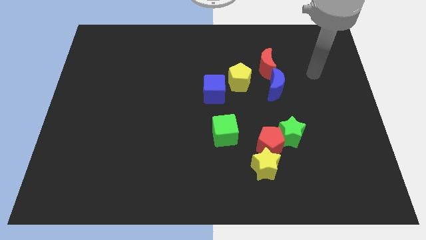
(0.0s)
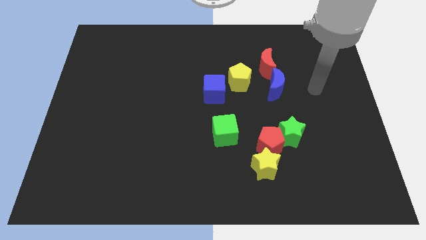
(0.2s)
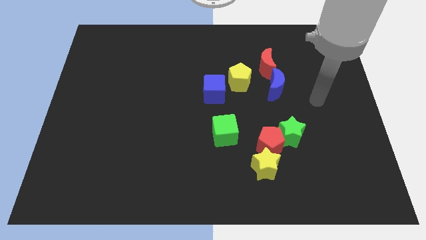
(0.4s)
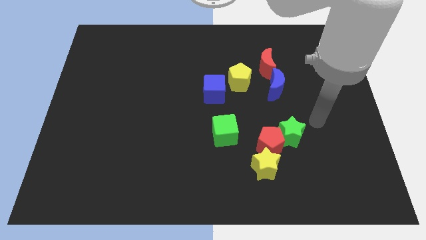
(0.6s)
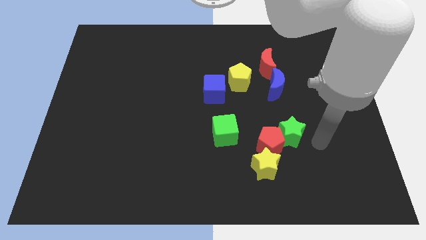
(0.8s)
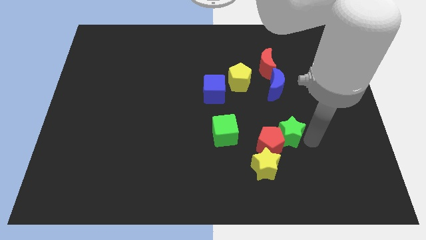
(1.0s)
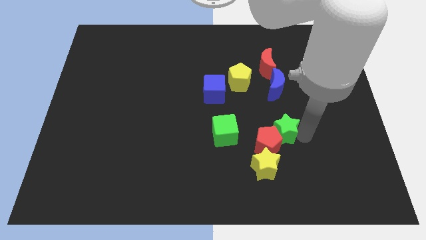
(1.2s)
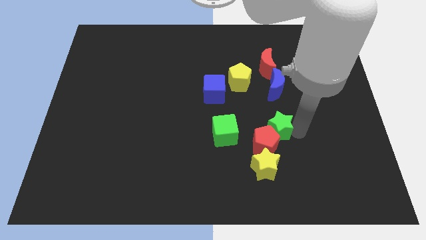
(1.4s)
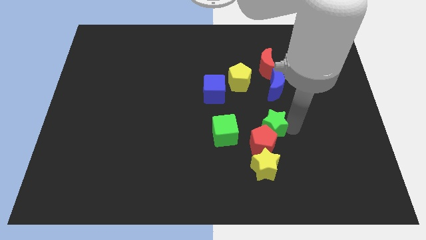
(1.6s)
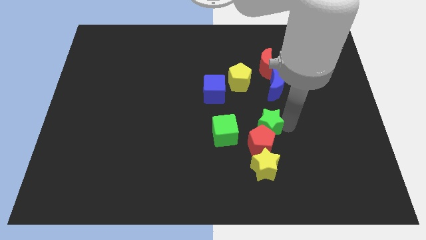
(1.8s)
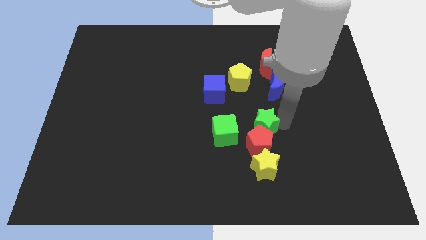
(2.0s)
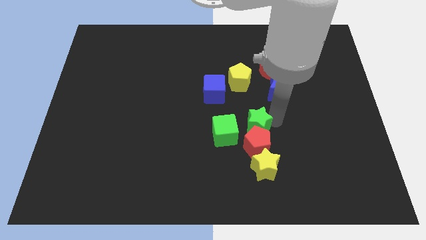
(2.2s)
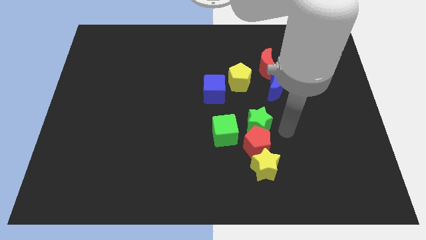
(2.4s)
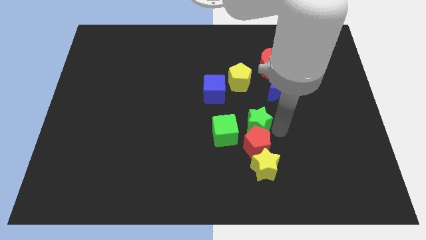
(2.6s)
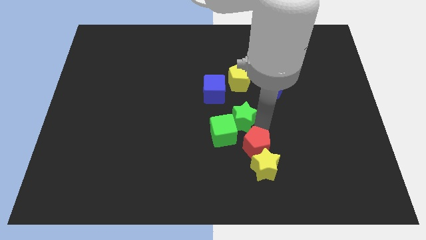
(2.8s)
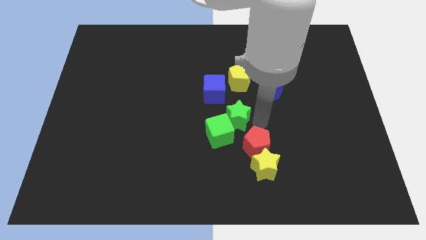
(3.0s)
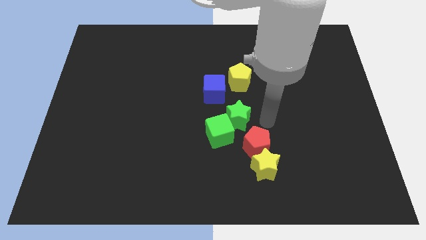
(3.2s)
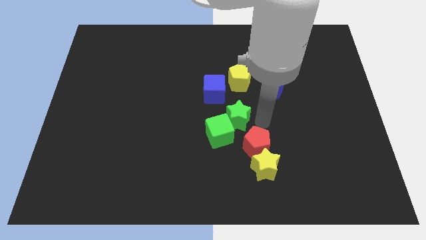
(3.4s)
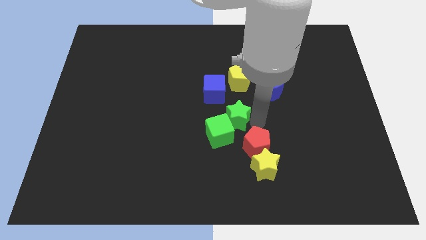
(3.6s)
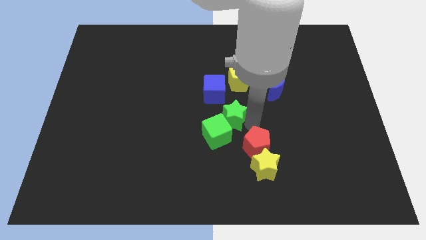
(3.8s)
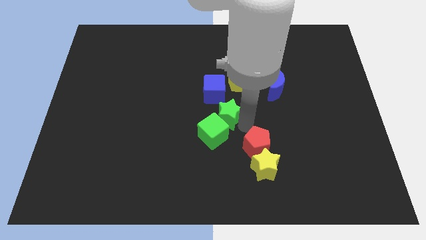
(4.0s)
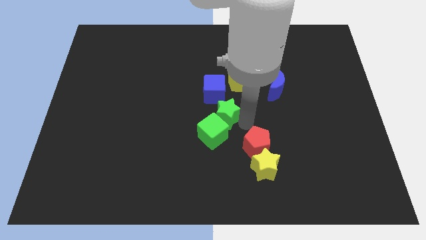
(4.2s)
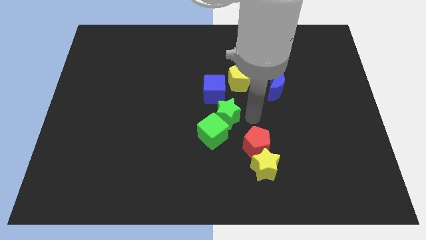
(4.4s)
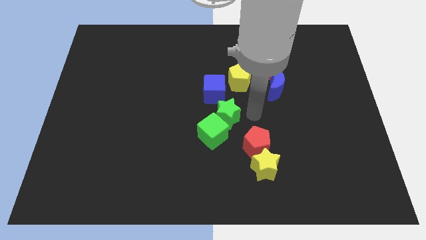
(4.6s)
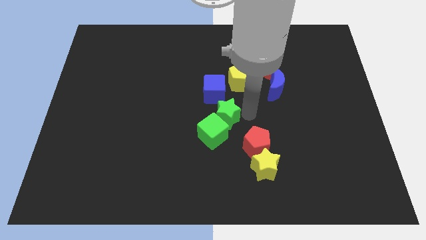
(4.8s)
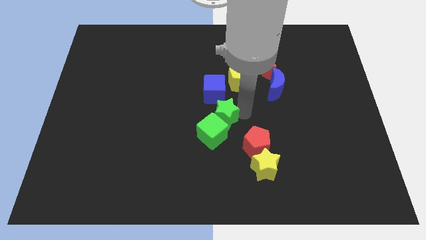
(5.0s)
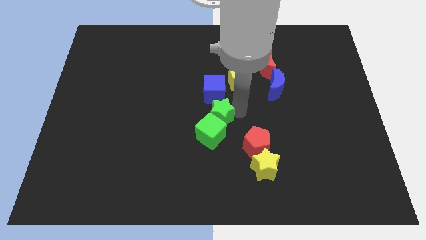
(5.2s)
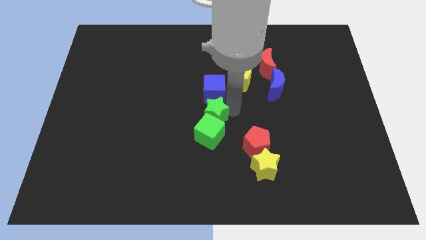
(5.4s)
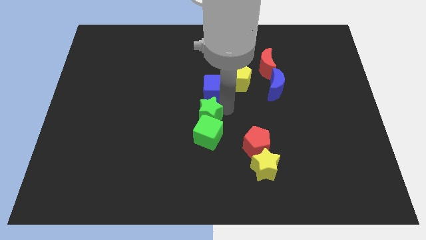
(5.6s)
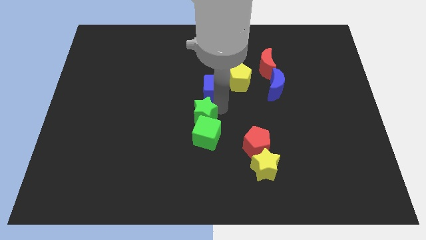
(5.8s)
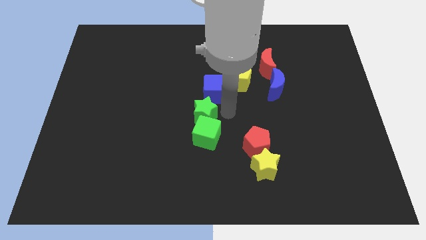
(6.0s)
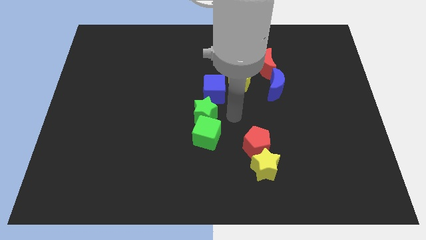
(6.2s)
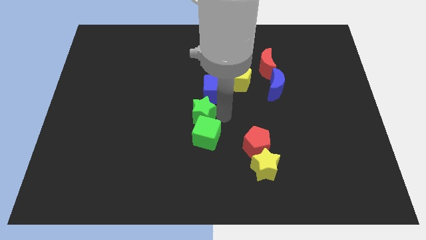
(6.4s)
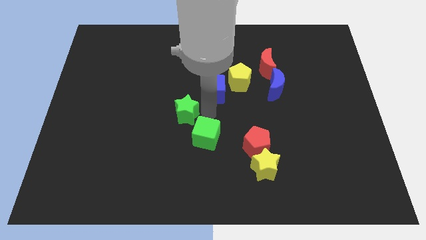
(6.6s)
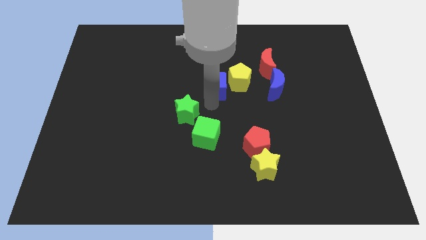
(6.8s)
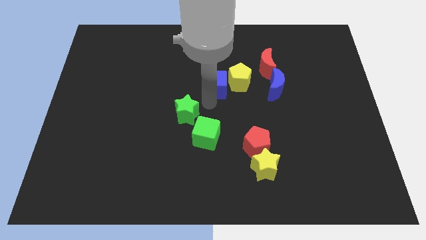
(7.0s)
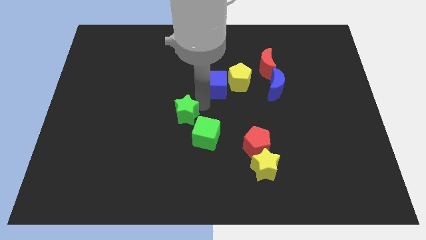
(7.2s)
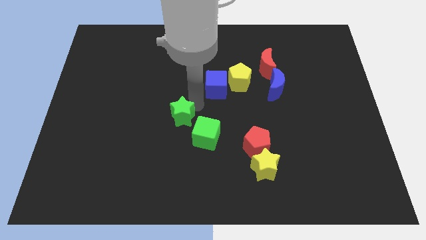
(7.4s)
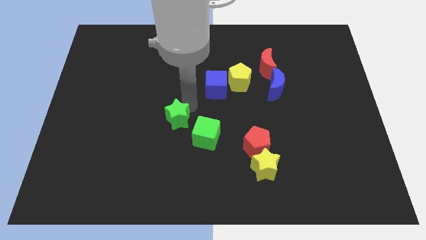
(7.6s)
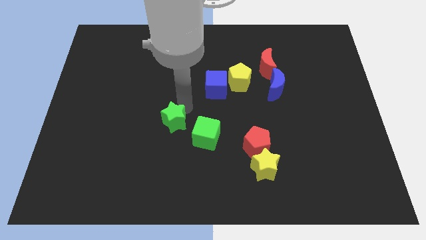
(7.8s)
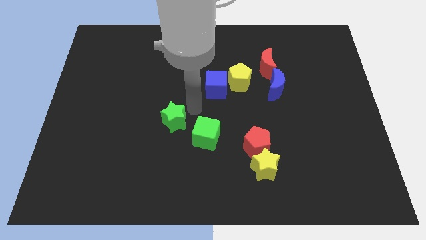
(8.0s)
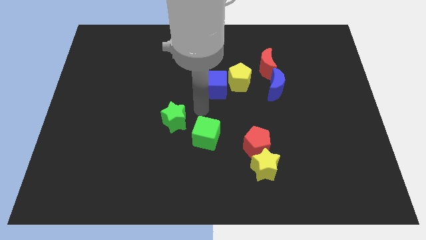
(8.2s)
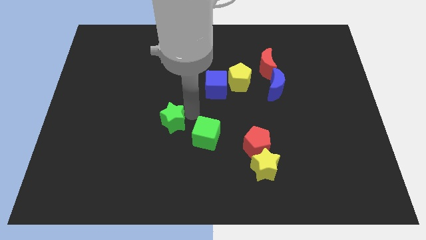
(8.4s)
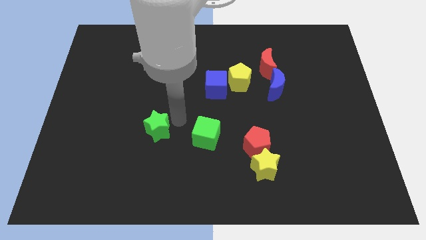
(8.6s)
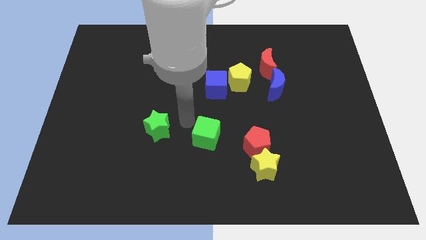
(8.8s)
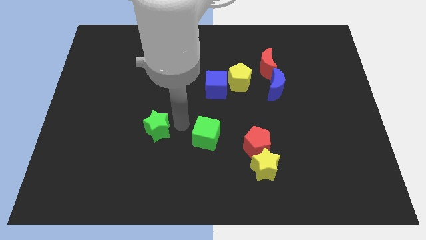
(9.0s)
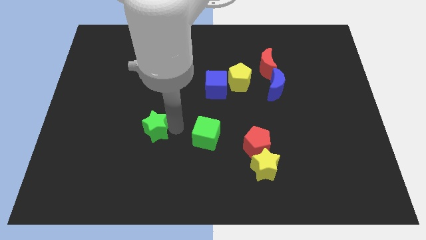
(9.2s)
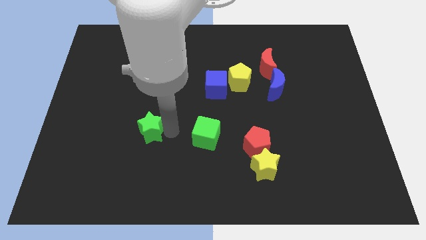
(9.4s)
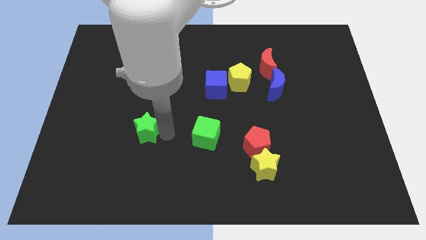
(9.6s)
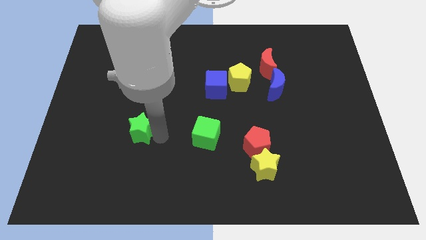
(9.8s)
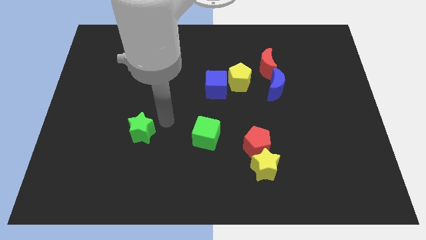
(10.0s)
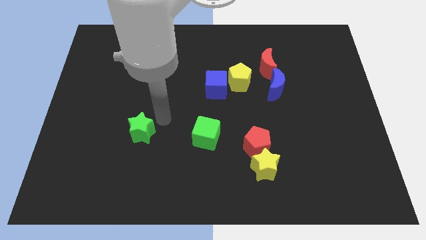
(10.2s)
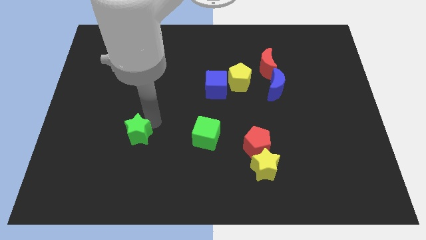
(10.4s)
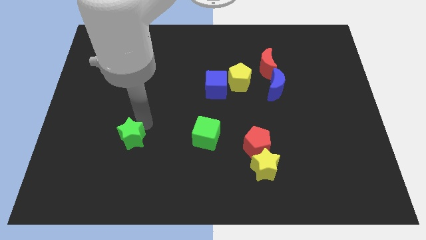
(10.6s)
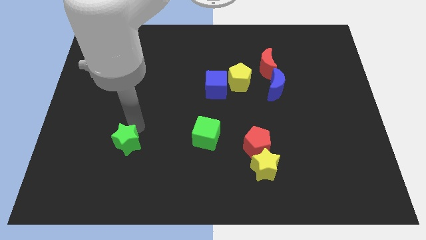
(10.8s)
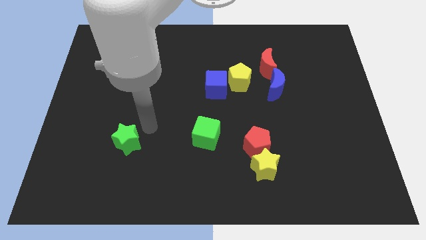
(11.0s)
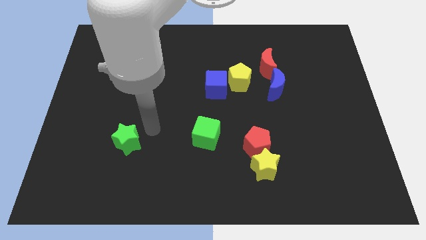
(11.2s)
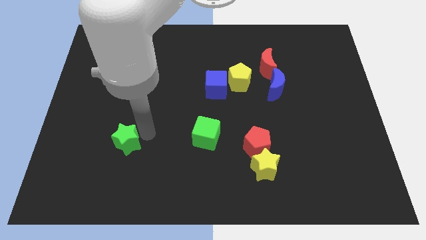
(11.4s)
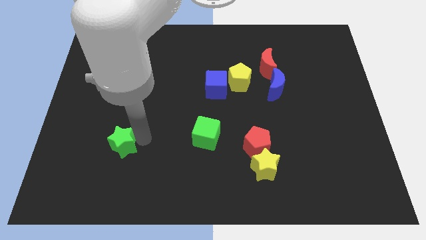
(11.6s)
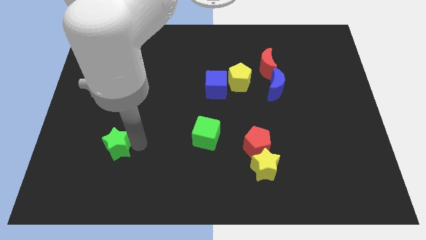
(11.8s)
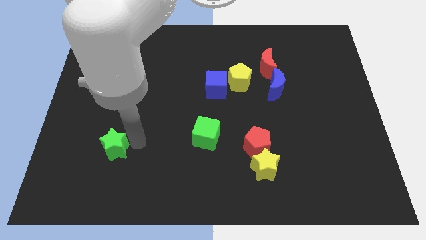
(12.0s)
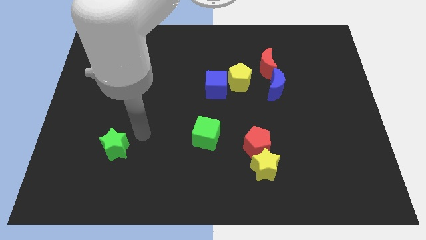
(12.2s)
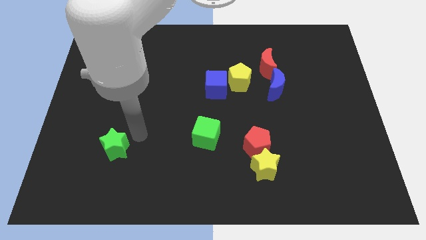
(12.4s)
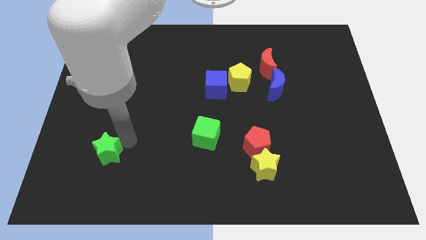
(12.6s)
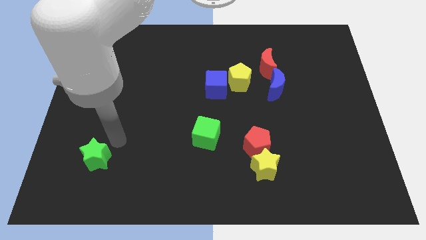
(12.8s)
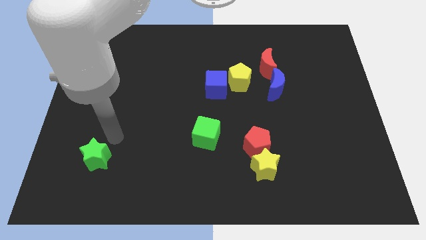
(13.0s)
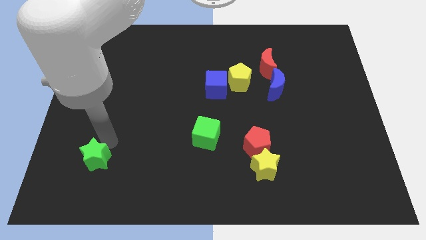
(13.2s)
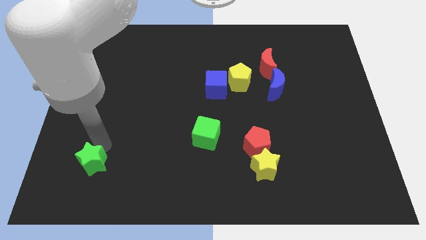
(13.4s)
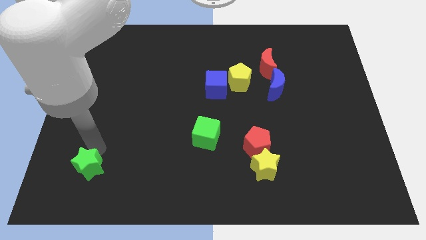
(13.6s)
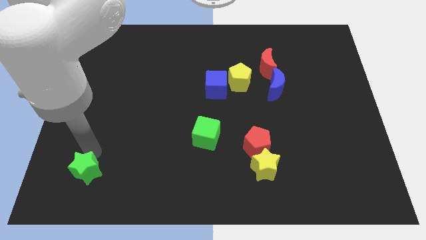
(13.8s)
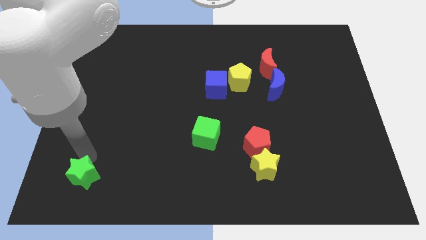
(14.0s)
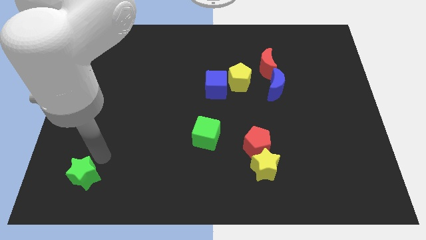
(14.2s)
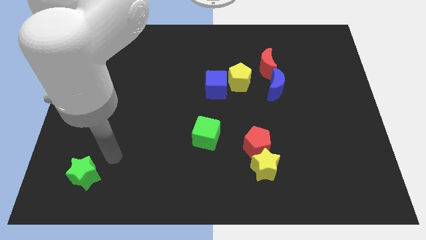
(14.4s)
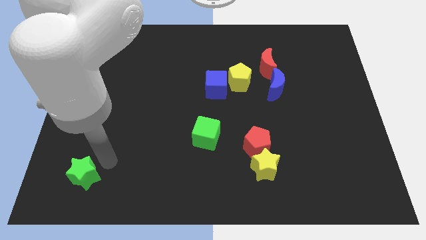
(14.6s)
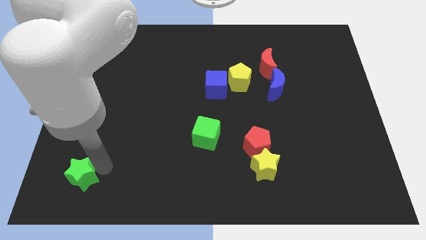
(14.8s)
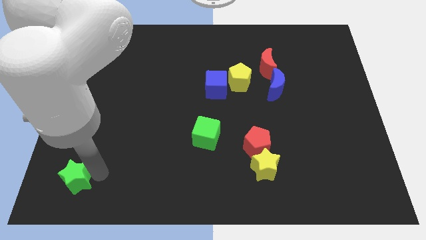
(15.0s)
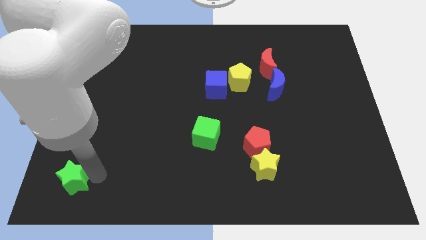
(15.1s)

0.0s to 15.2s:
move the green star to the bottom left
